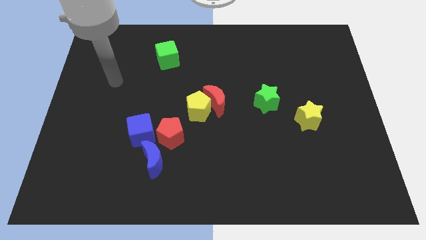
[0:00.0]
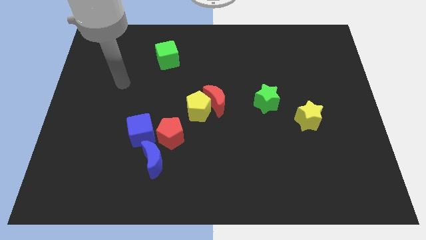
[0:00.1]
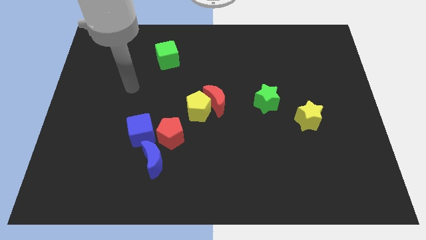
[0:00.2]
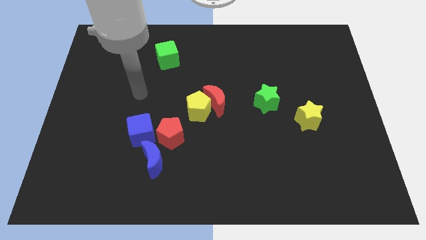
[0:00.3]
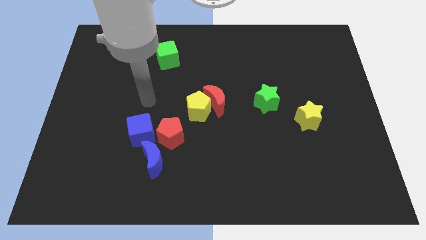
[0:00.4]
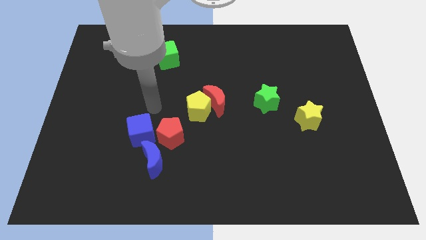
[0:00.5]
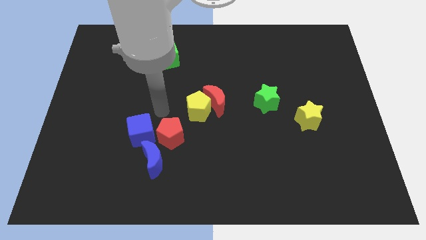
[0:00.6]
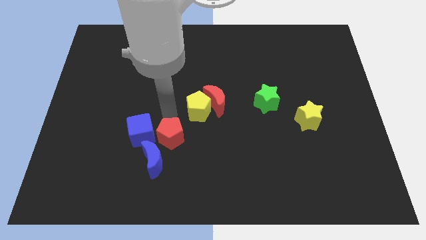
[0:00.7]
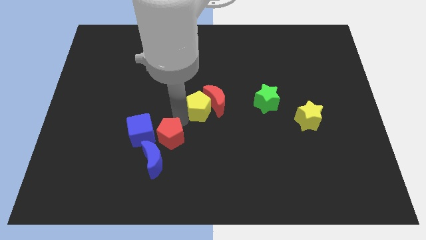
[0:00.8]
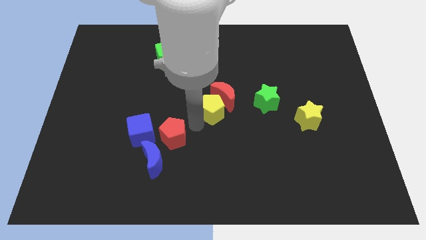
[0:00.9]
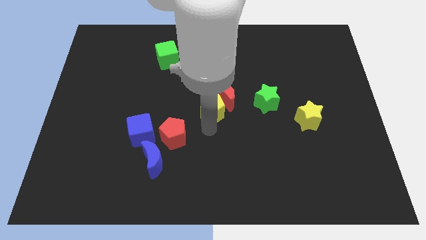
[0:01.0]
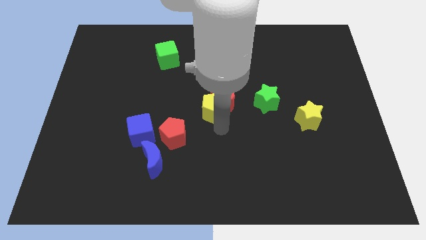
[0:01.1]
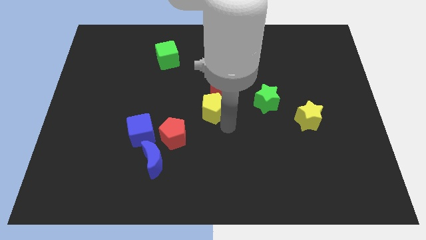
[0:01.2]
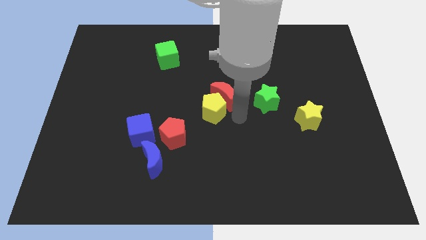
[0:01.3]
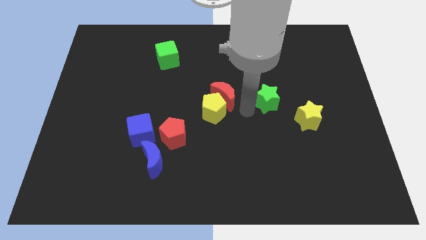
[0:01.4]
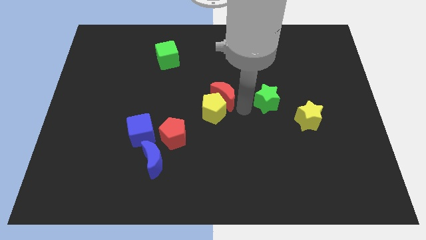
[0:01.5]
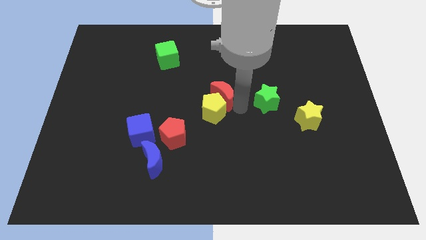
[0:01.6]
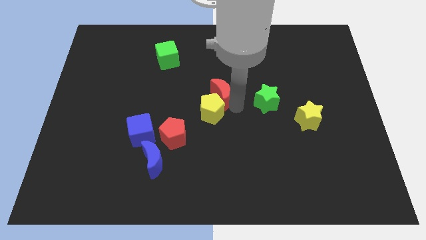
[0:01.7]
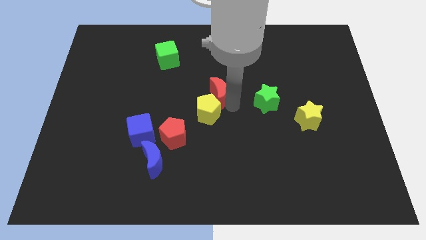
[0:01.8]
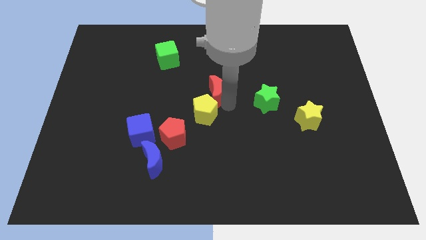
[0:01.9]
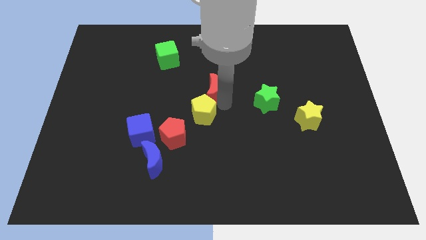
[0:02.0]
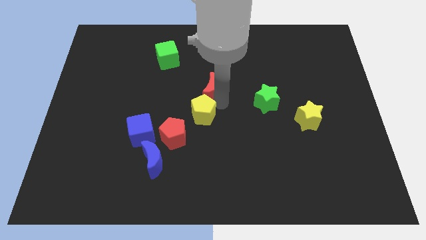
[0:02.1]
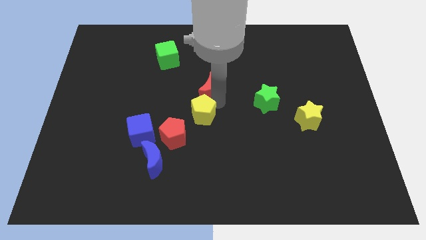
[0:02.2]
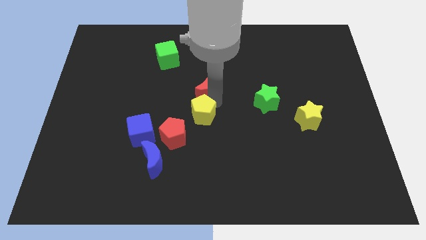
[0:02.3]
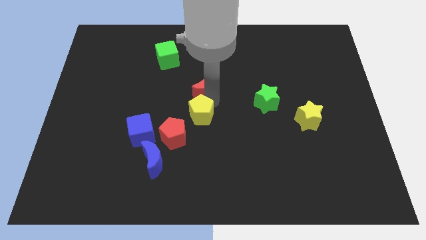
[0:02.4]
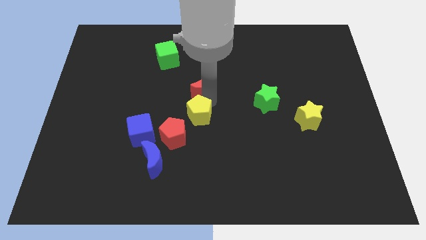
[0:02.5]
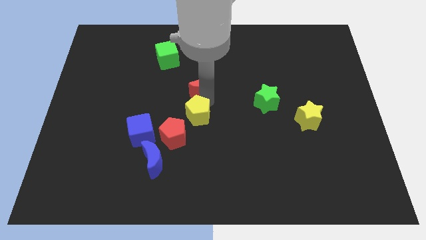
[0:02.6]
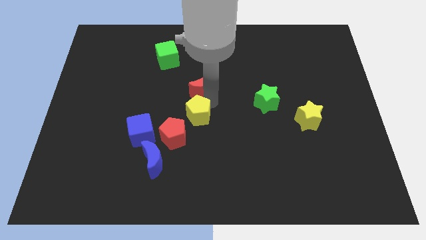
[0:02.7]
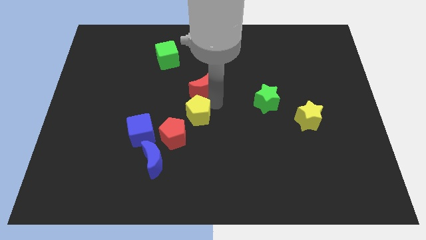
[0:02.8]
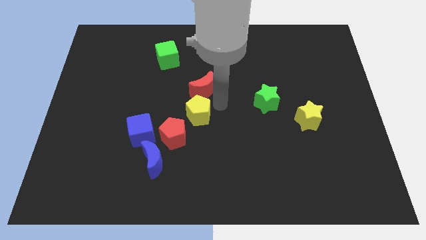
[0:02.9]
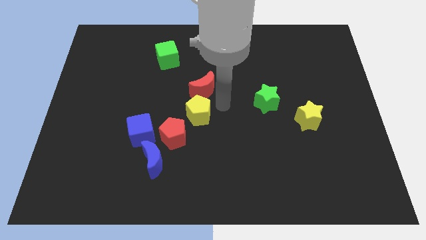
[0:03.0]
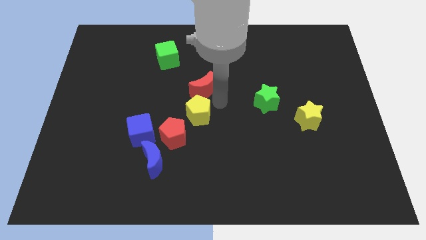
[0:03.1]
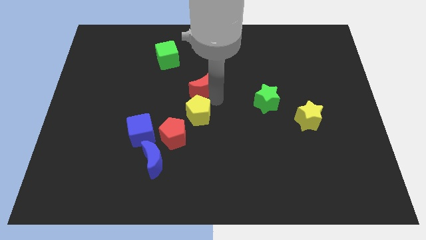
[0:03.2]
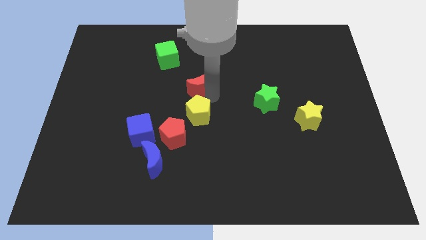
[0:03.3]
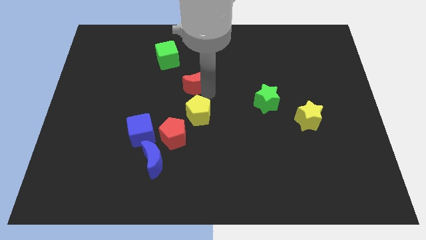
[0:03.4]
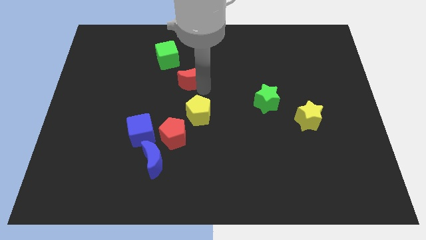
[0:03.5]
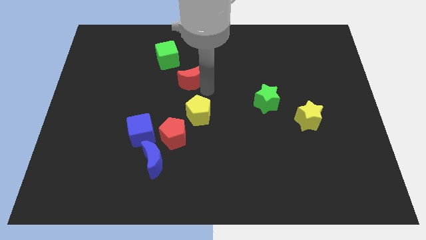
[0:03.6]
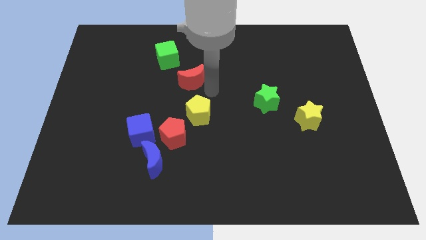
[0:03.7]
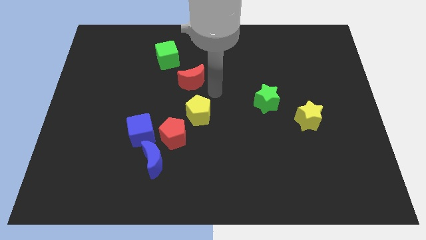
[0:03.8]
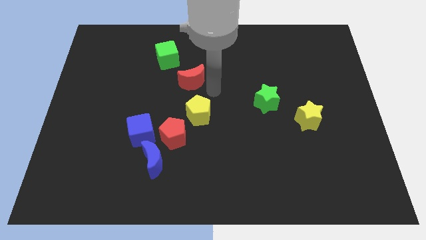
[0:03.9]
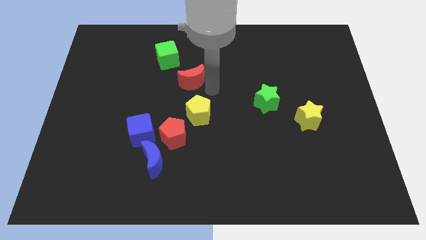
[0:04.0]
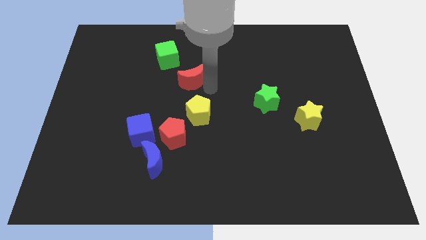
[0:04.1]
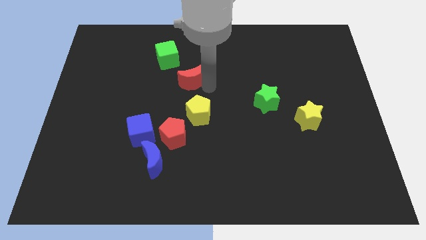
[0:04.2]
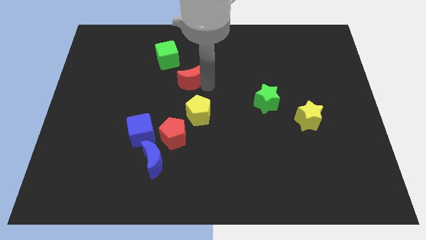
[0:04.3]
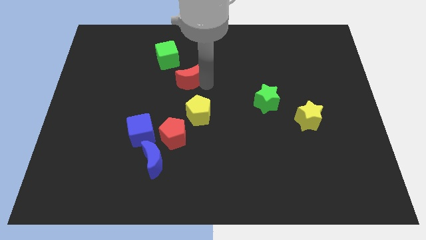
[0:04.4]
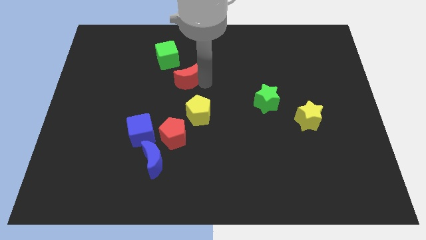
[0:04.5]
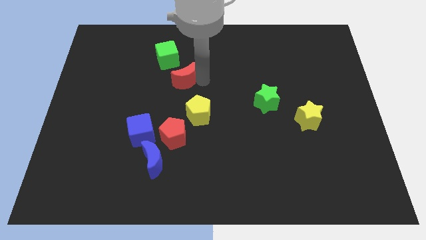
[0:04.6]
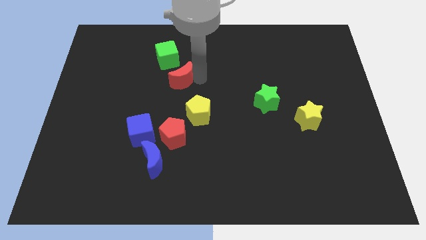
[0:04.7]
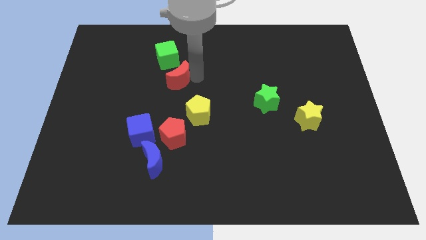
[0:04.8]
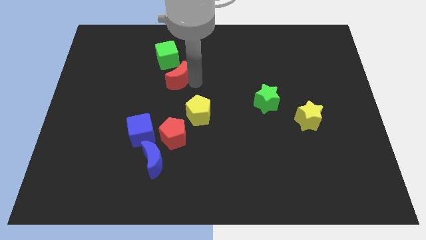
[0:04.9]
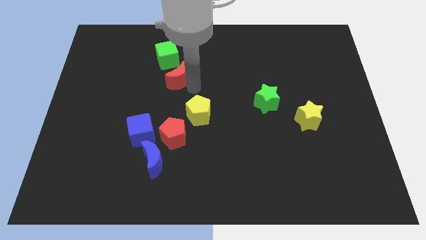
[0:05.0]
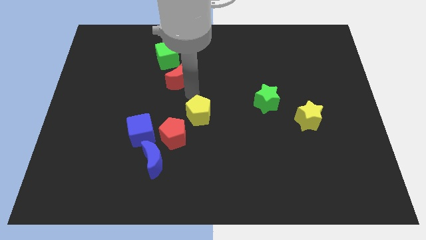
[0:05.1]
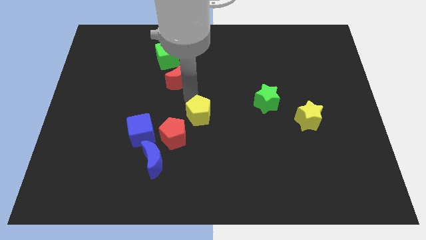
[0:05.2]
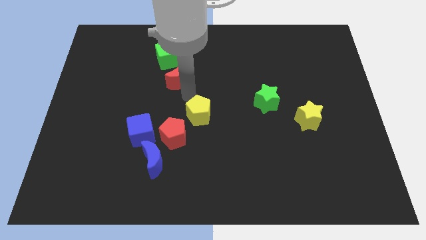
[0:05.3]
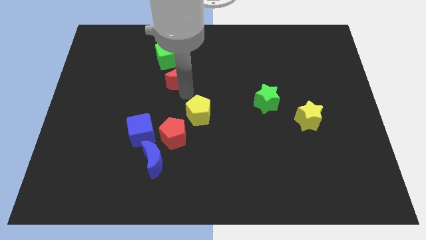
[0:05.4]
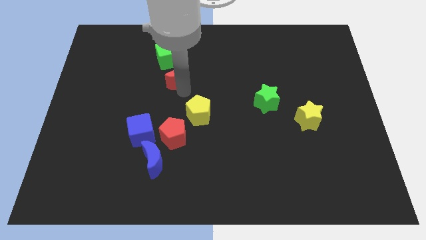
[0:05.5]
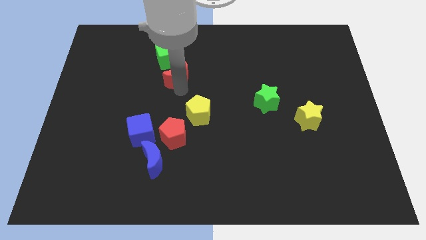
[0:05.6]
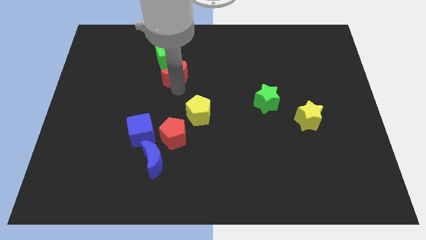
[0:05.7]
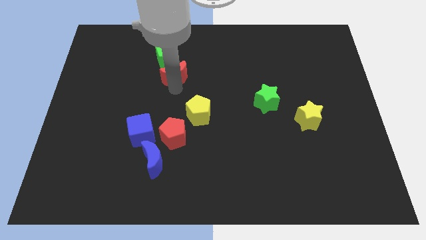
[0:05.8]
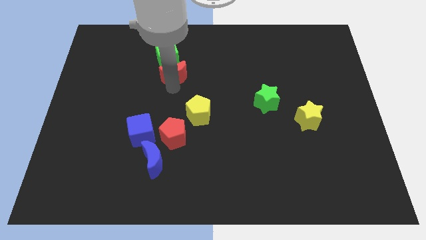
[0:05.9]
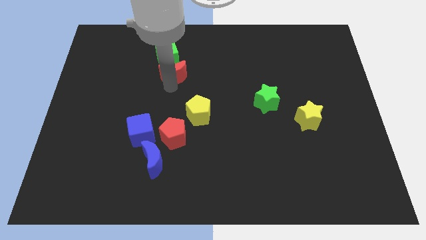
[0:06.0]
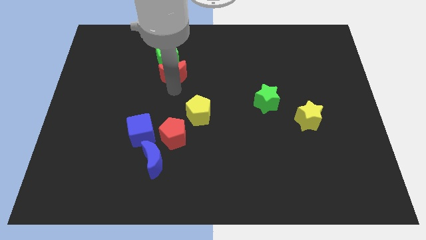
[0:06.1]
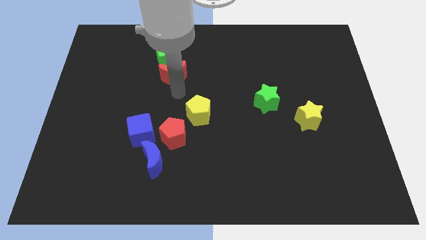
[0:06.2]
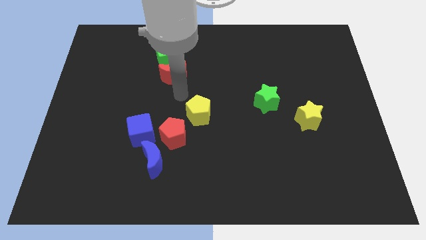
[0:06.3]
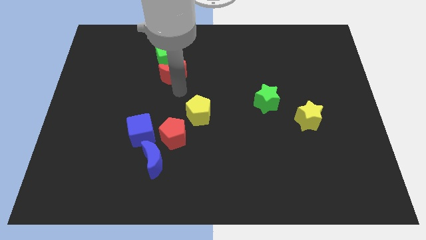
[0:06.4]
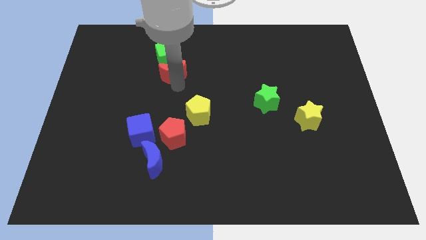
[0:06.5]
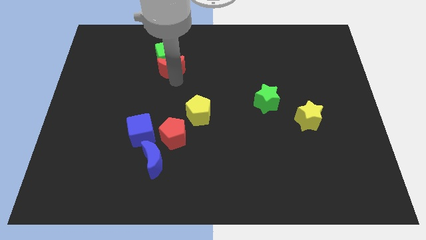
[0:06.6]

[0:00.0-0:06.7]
push the red moon to the green cube
